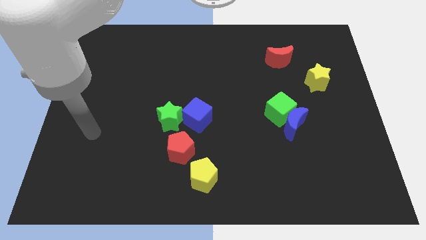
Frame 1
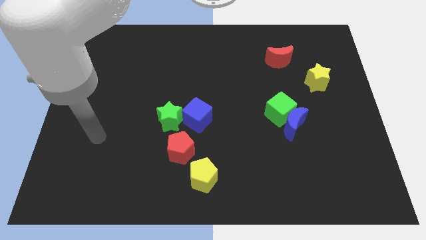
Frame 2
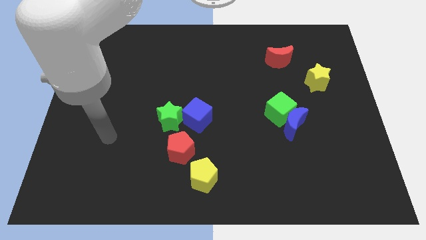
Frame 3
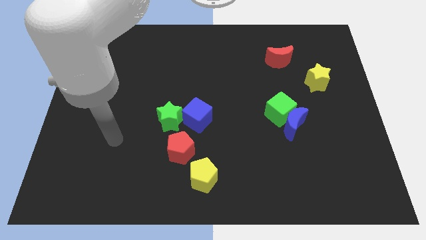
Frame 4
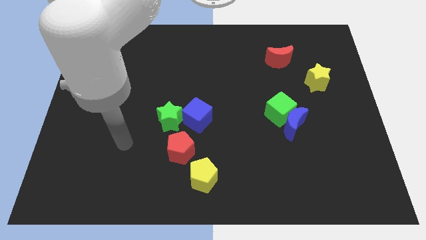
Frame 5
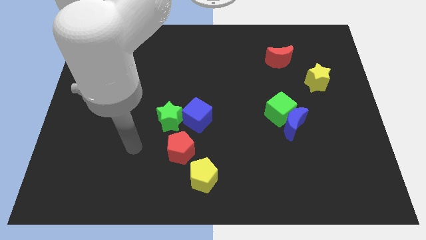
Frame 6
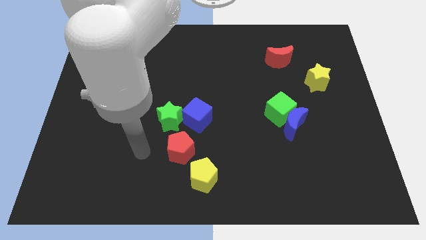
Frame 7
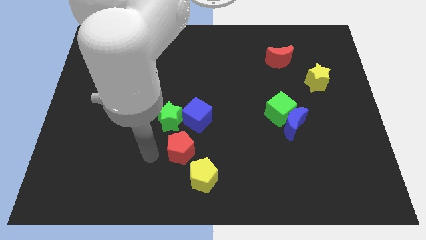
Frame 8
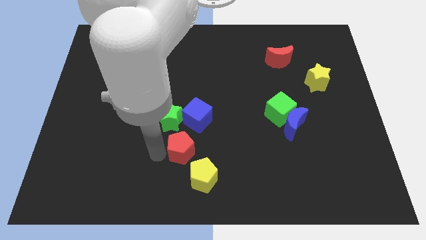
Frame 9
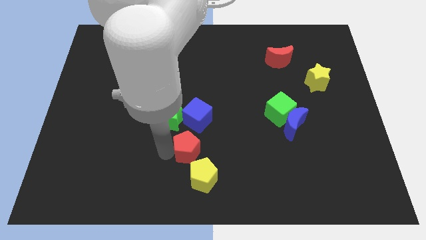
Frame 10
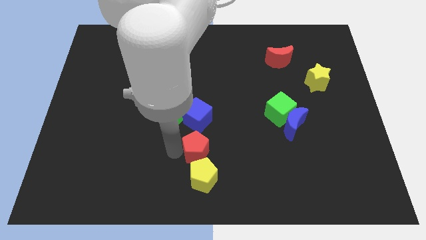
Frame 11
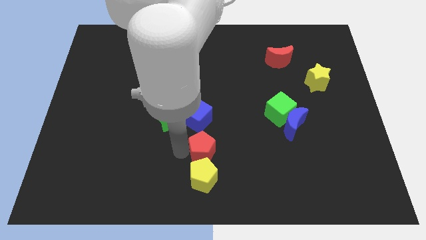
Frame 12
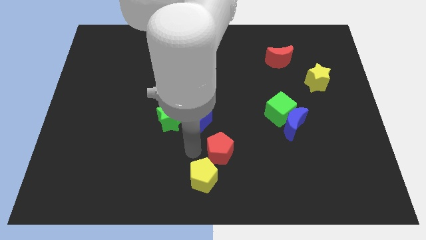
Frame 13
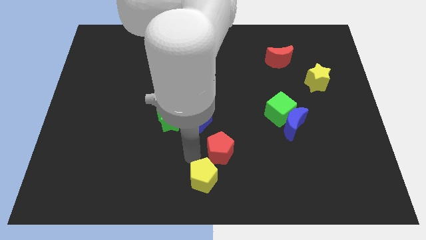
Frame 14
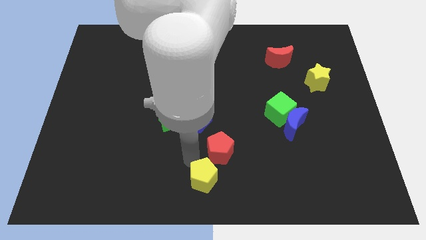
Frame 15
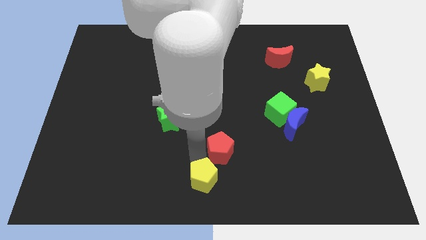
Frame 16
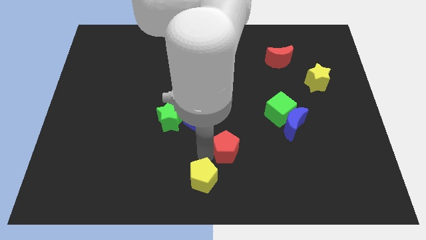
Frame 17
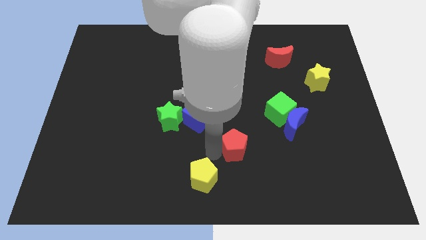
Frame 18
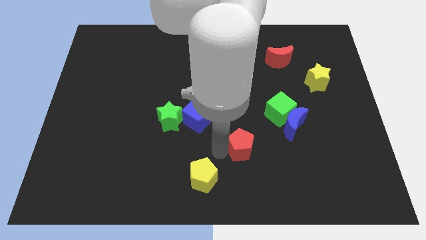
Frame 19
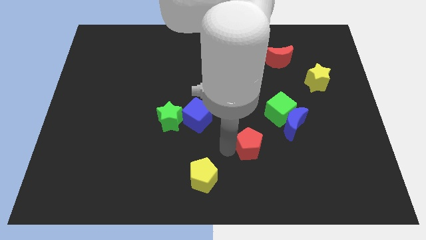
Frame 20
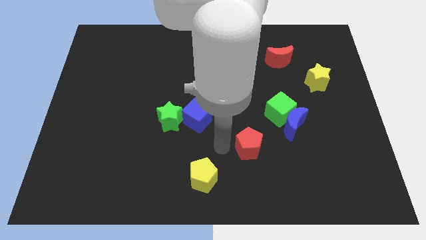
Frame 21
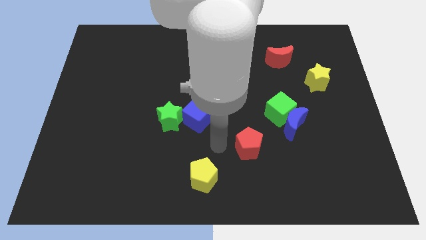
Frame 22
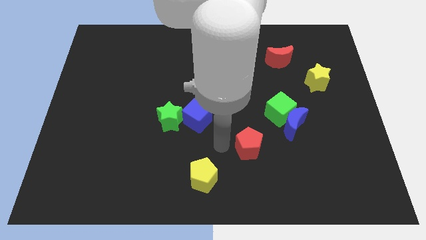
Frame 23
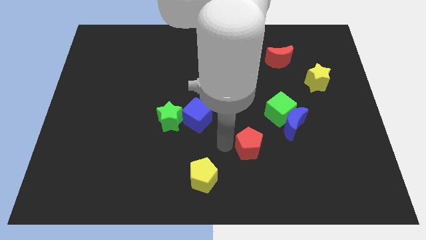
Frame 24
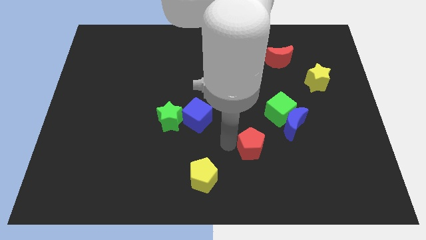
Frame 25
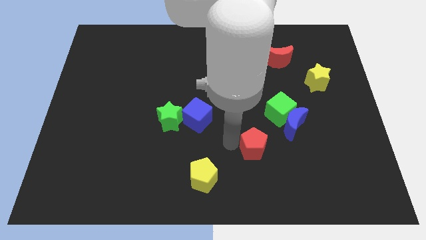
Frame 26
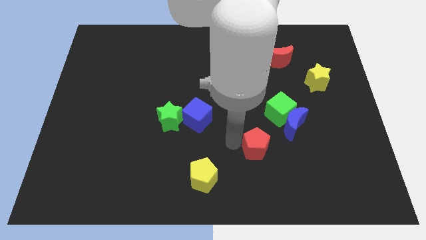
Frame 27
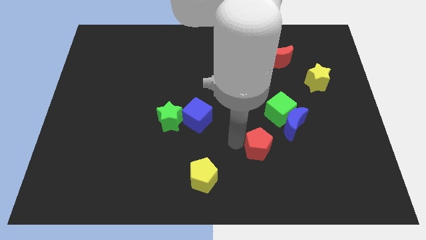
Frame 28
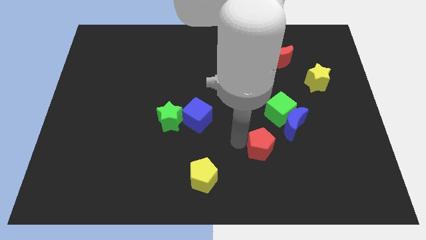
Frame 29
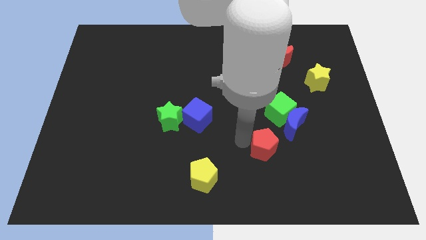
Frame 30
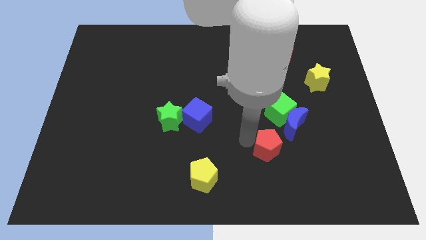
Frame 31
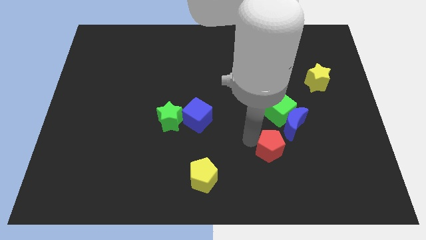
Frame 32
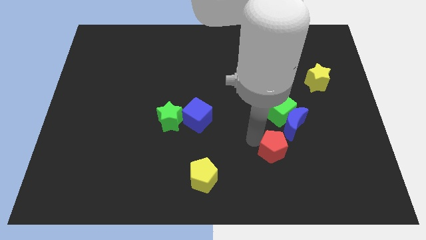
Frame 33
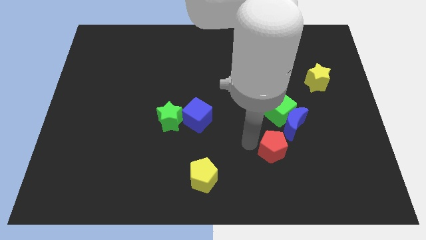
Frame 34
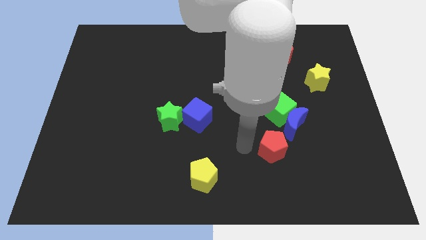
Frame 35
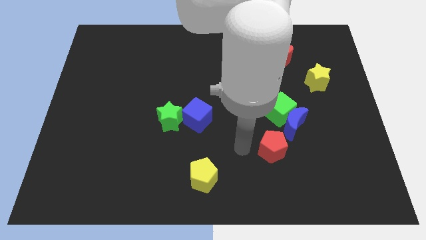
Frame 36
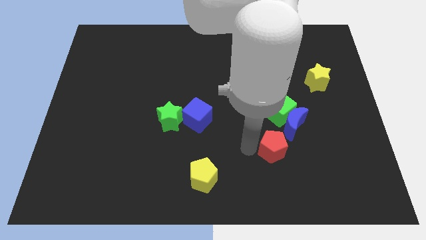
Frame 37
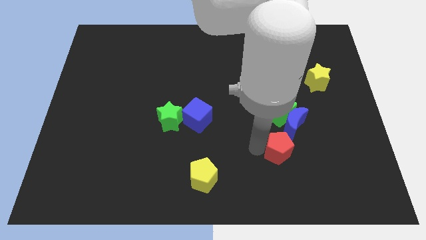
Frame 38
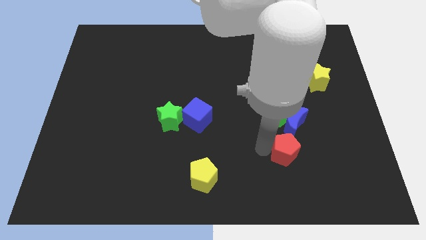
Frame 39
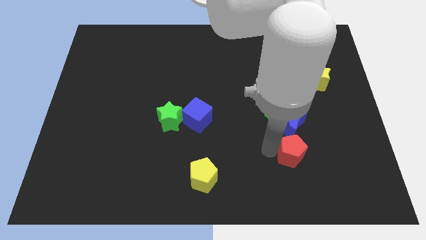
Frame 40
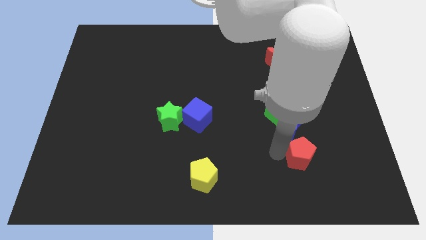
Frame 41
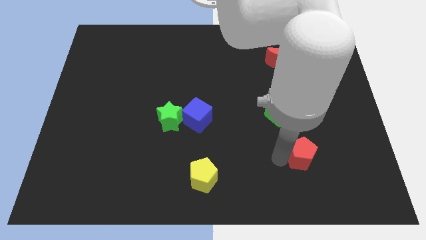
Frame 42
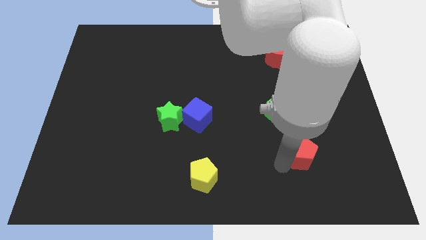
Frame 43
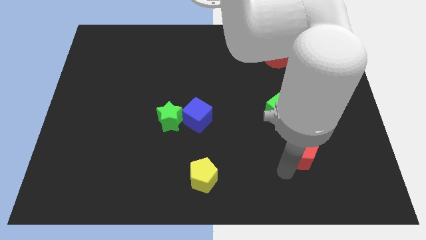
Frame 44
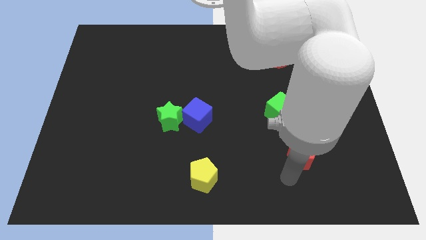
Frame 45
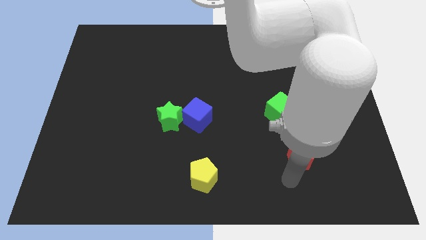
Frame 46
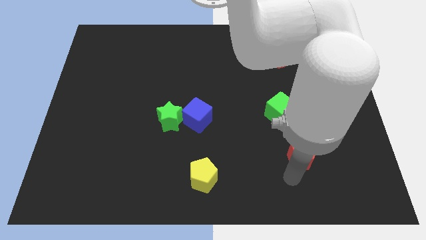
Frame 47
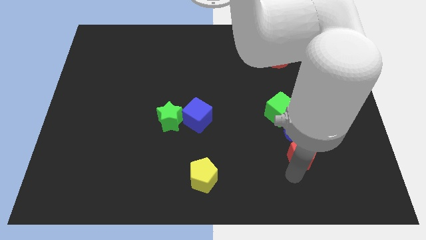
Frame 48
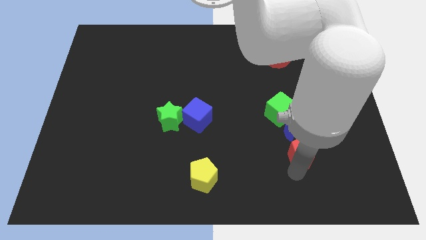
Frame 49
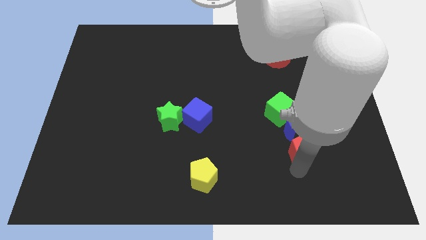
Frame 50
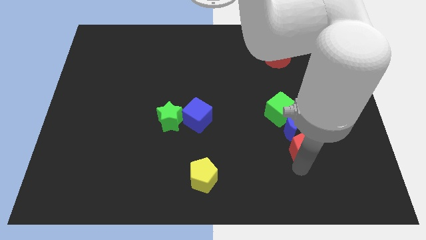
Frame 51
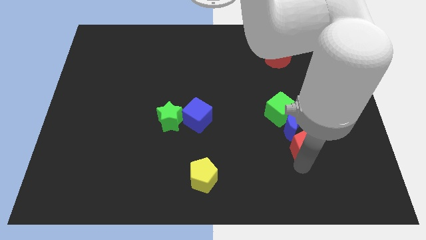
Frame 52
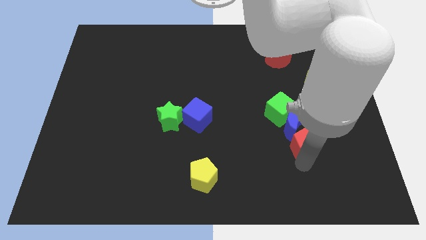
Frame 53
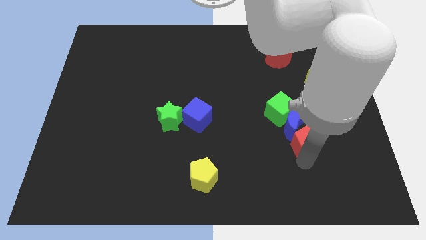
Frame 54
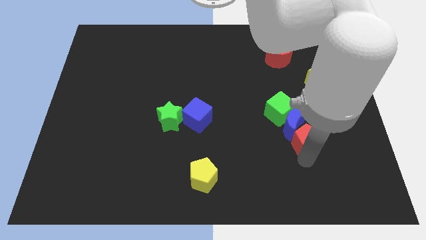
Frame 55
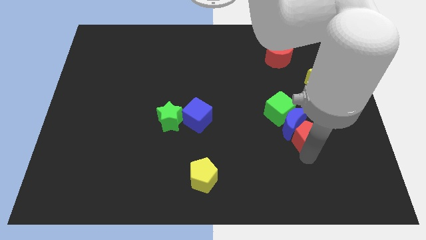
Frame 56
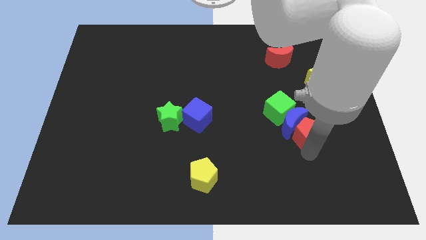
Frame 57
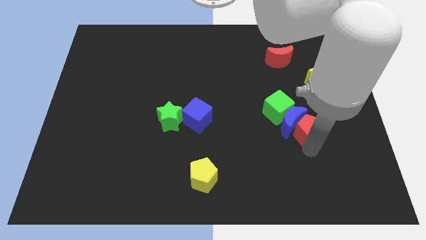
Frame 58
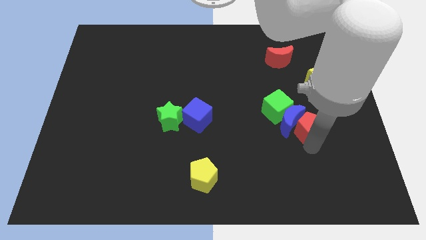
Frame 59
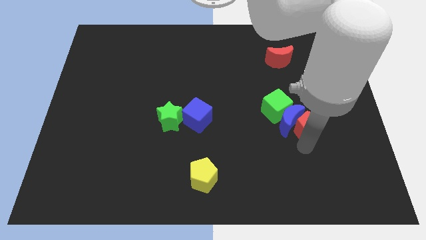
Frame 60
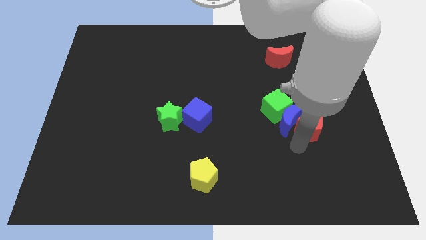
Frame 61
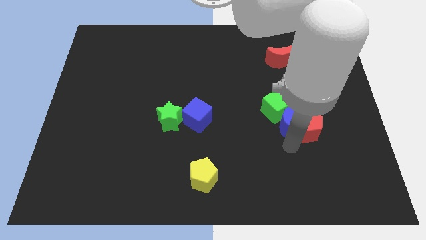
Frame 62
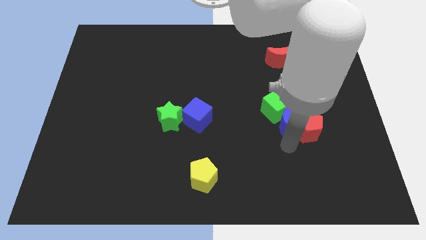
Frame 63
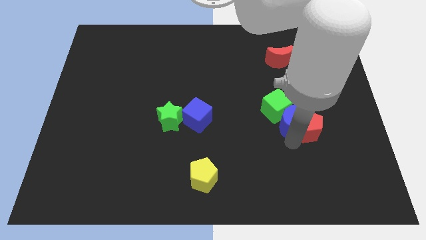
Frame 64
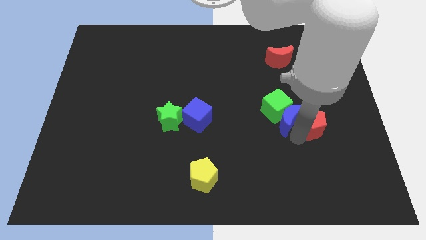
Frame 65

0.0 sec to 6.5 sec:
put the red pentagon to the bottom side of the yellow star

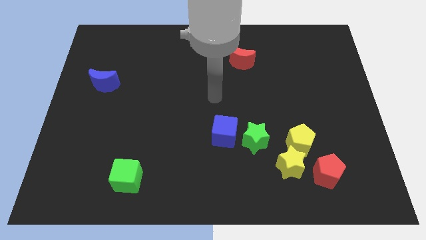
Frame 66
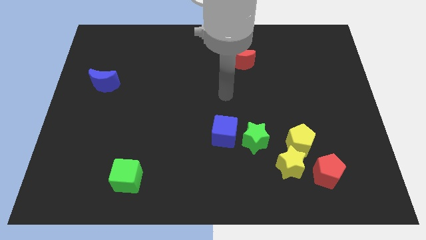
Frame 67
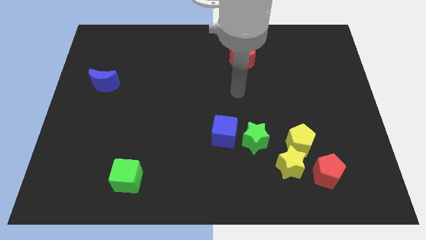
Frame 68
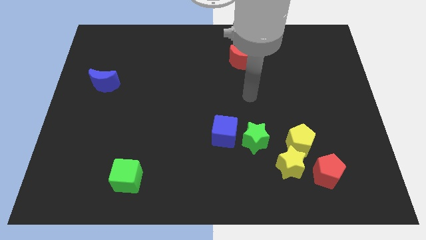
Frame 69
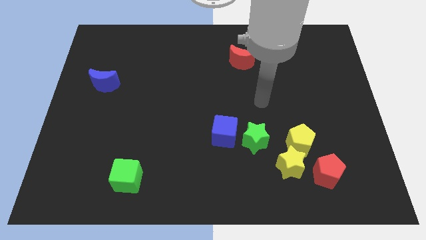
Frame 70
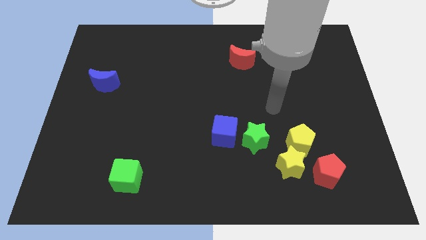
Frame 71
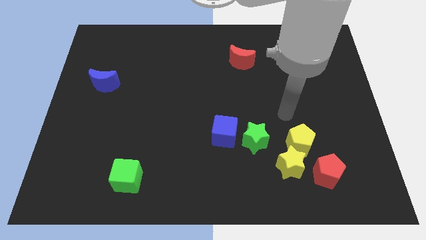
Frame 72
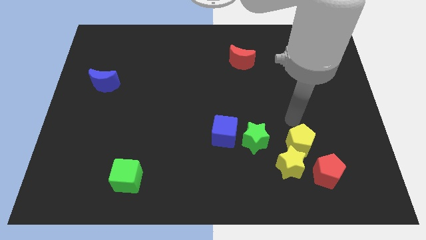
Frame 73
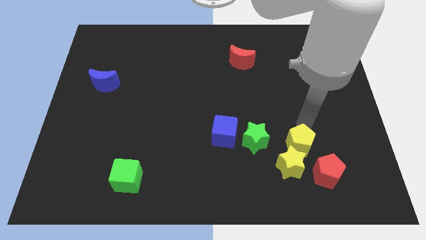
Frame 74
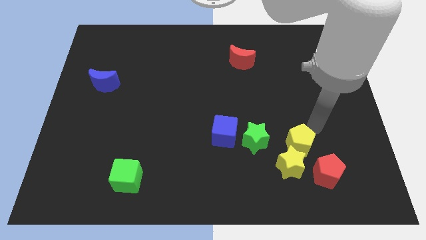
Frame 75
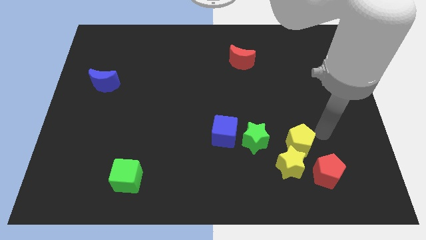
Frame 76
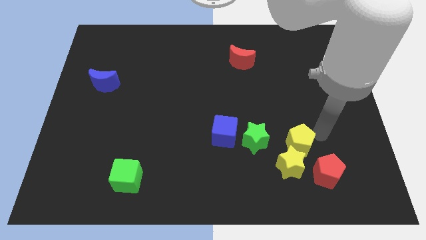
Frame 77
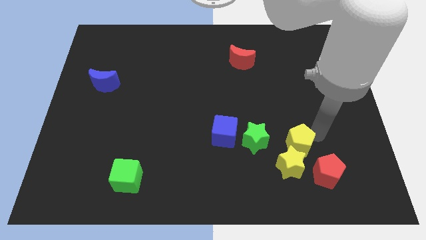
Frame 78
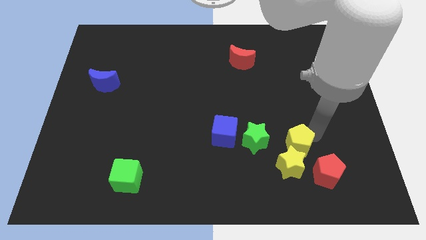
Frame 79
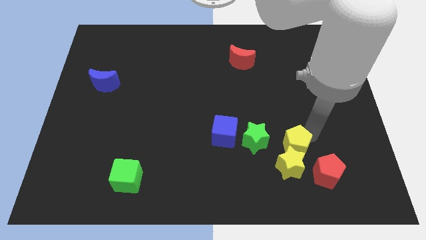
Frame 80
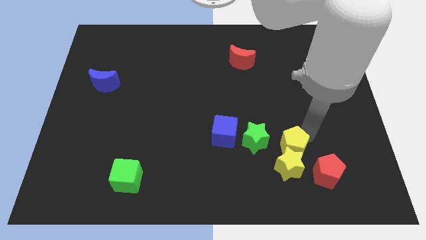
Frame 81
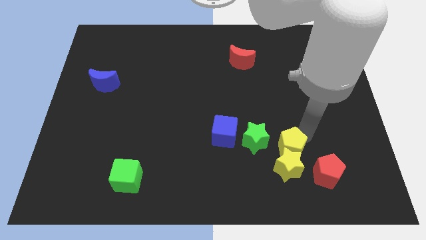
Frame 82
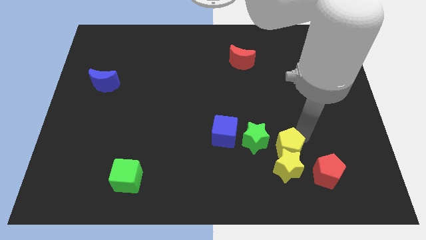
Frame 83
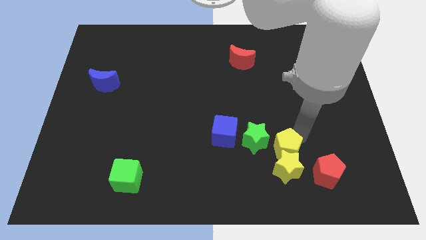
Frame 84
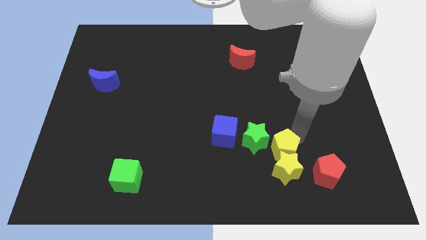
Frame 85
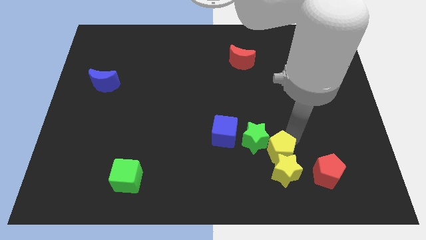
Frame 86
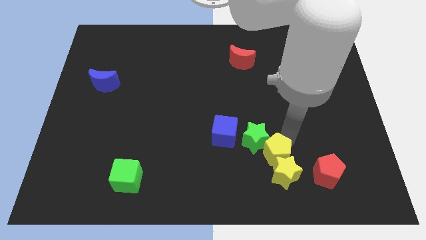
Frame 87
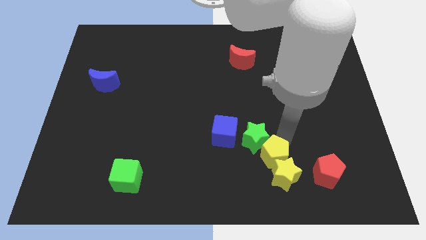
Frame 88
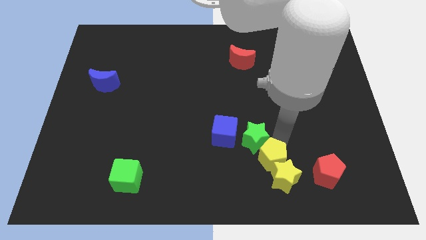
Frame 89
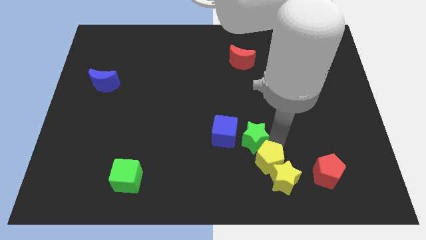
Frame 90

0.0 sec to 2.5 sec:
slide the yellow pentagon to the left of the yellow star
